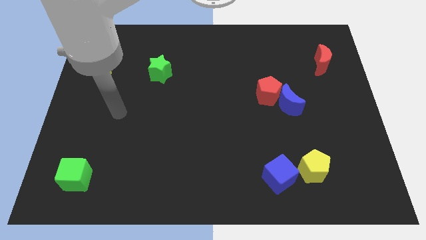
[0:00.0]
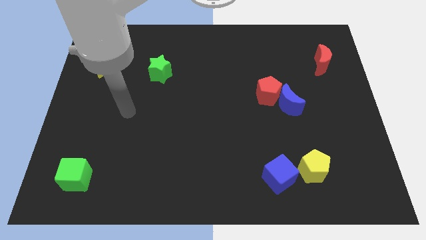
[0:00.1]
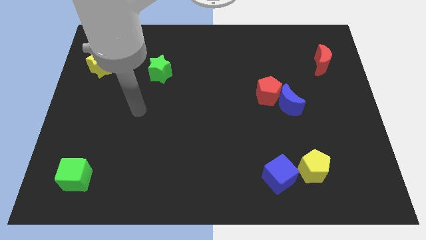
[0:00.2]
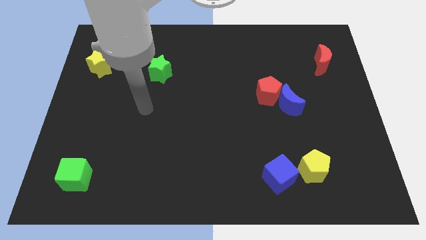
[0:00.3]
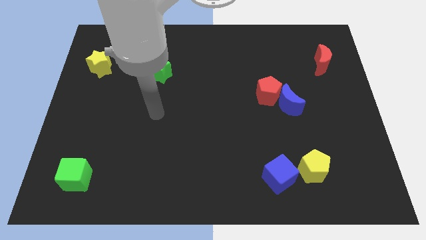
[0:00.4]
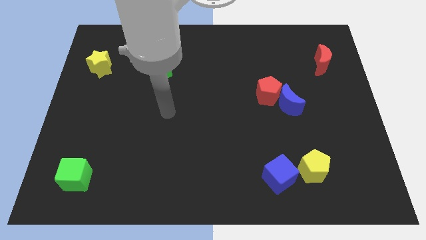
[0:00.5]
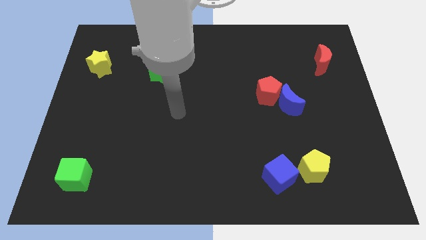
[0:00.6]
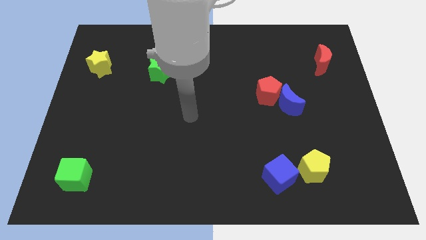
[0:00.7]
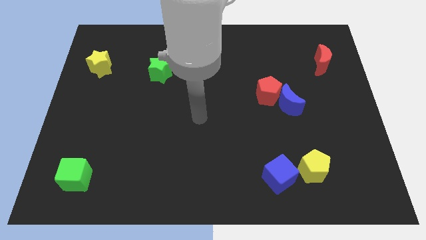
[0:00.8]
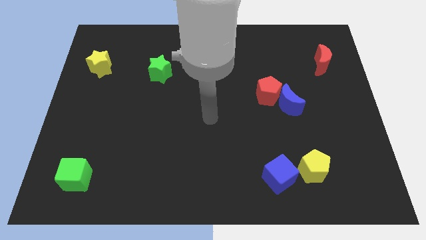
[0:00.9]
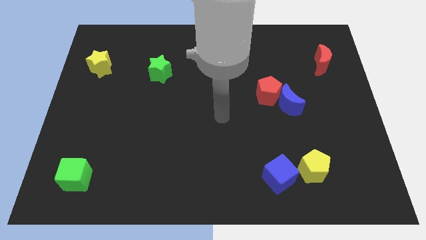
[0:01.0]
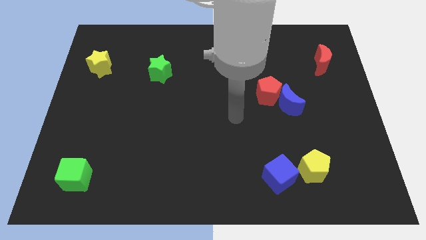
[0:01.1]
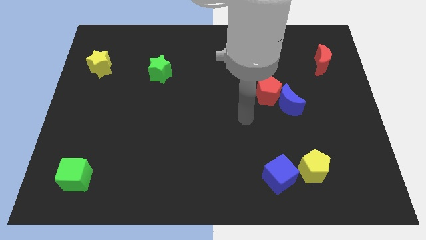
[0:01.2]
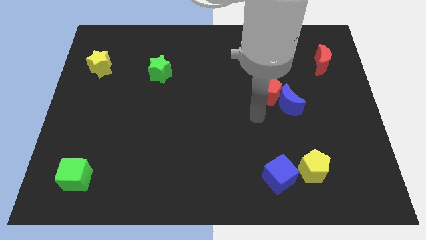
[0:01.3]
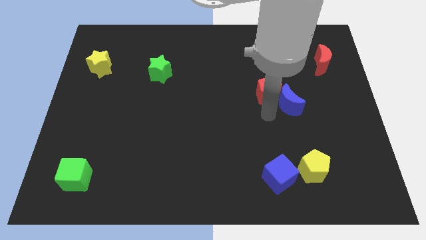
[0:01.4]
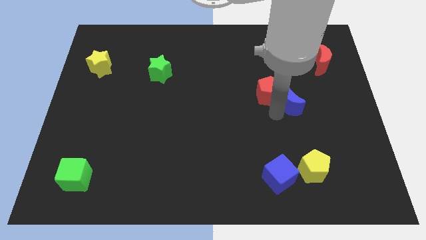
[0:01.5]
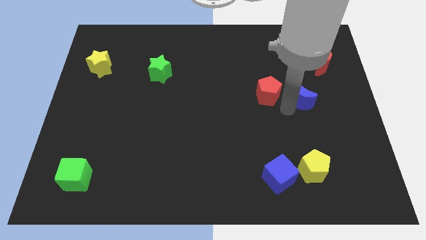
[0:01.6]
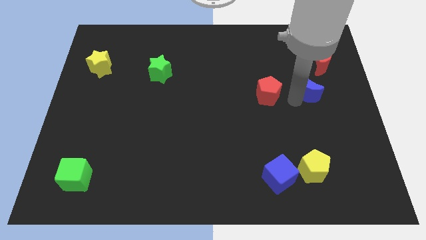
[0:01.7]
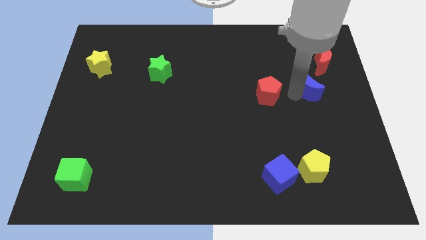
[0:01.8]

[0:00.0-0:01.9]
pull the red pentagon apart from the blue moon

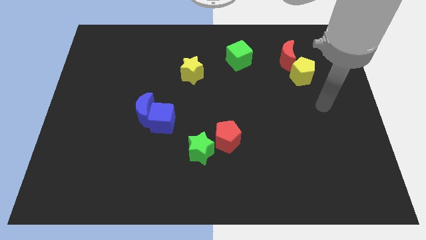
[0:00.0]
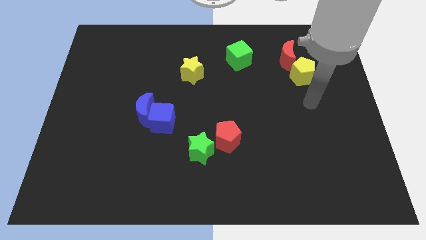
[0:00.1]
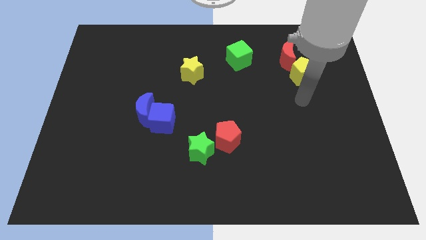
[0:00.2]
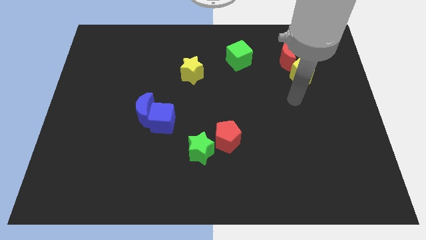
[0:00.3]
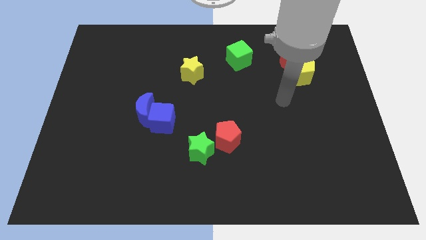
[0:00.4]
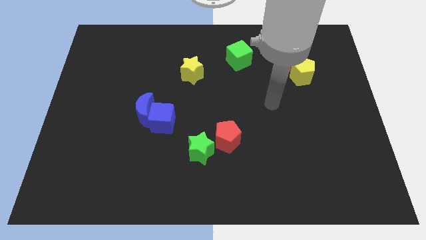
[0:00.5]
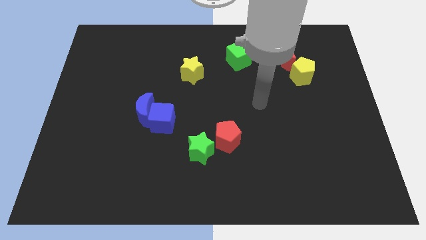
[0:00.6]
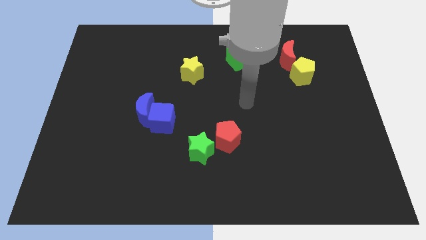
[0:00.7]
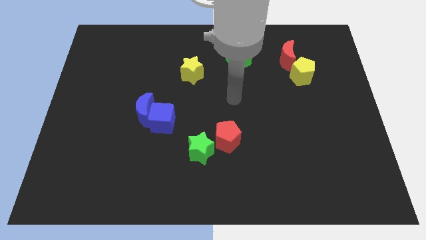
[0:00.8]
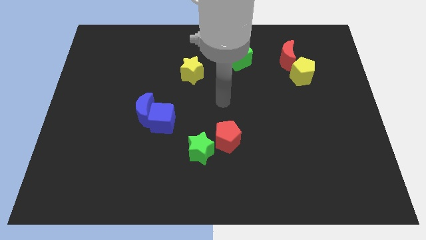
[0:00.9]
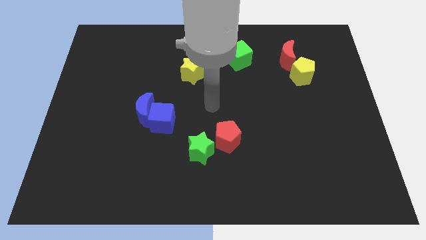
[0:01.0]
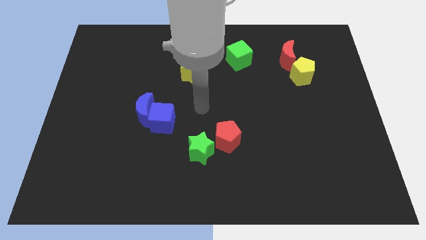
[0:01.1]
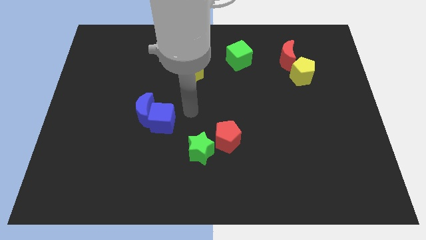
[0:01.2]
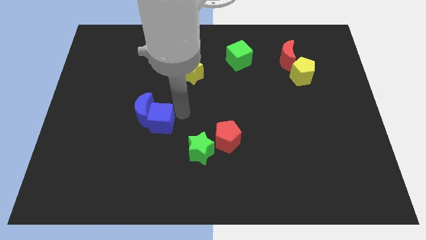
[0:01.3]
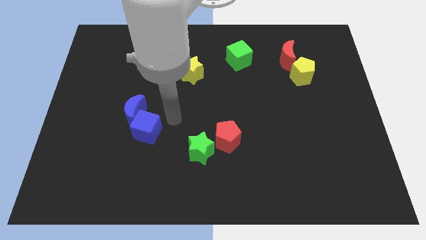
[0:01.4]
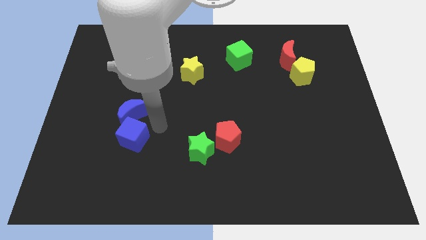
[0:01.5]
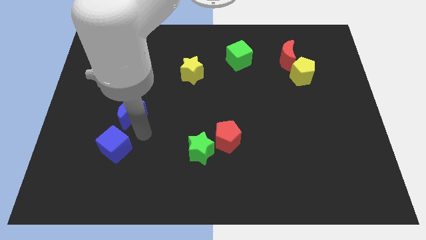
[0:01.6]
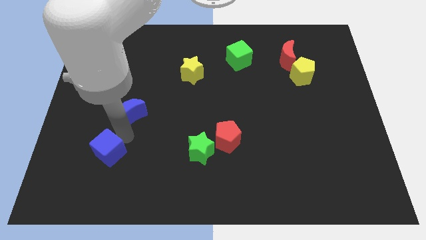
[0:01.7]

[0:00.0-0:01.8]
separate the blue moon from the blue cube

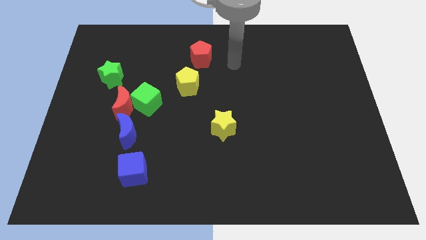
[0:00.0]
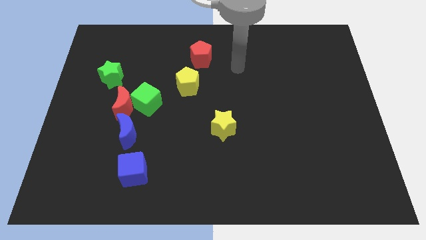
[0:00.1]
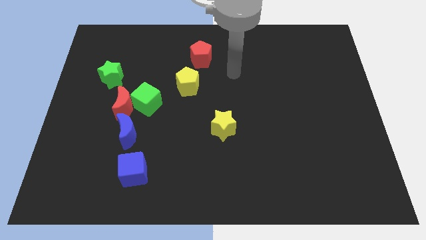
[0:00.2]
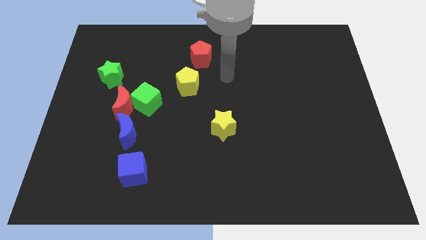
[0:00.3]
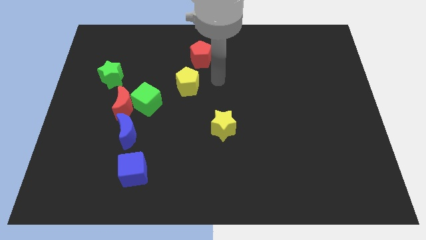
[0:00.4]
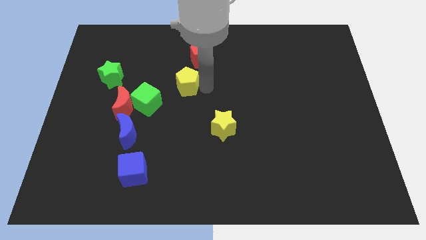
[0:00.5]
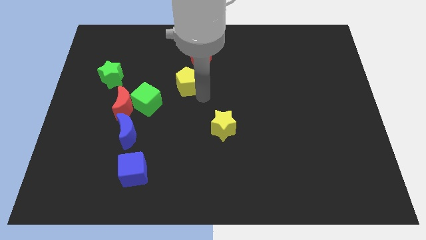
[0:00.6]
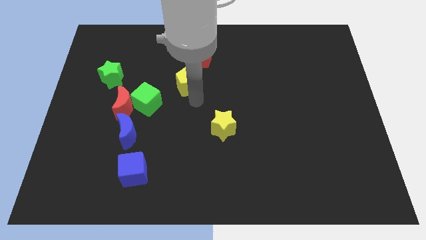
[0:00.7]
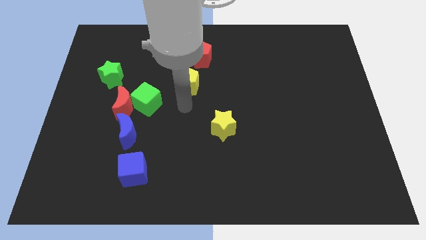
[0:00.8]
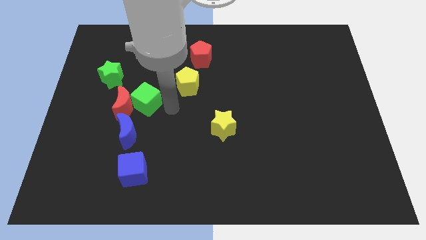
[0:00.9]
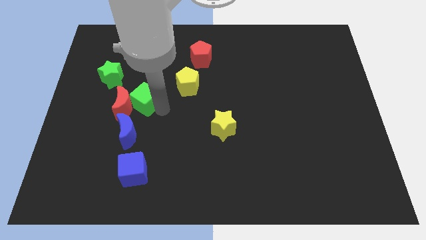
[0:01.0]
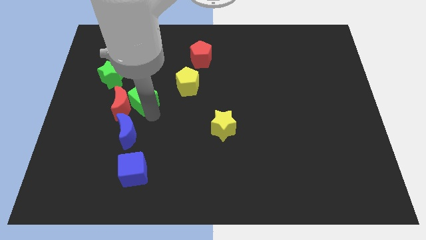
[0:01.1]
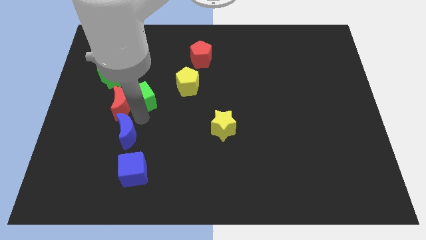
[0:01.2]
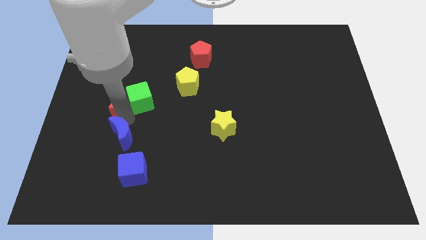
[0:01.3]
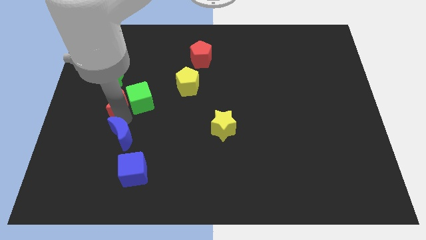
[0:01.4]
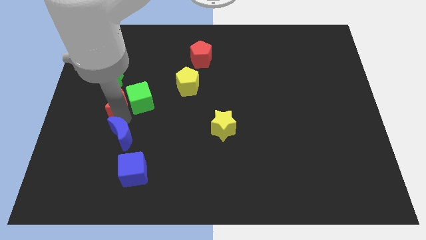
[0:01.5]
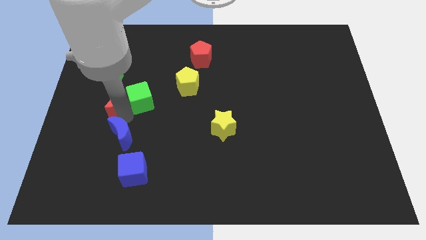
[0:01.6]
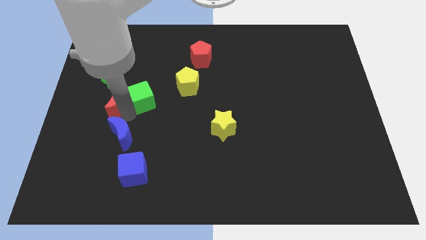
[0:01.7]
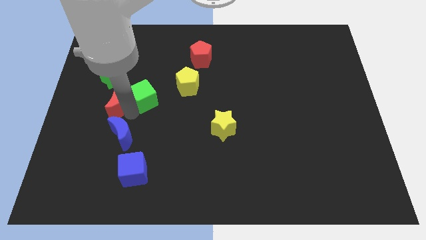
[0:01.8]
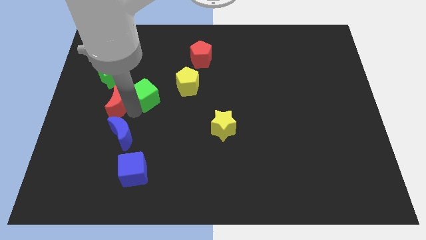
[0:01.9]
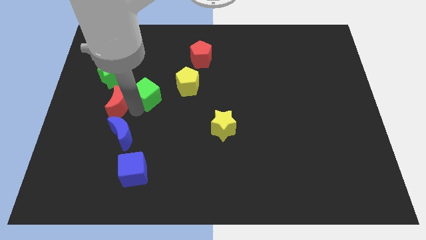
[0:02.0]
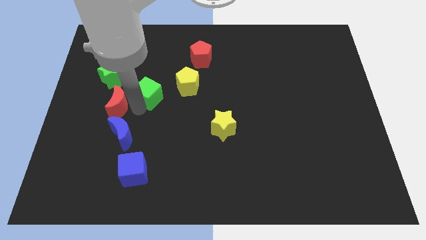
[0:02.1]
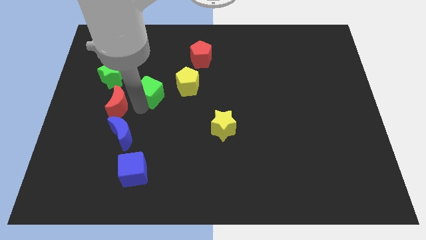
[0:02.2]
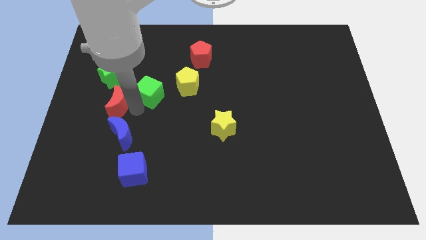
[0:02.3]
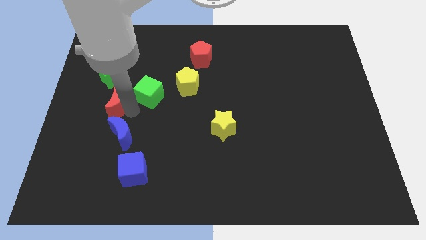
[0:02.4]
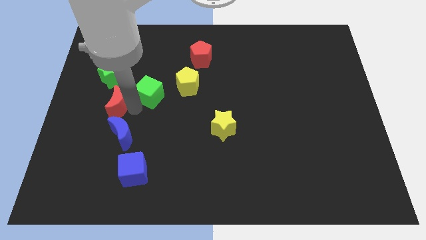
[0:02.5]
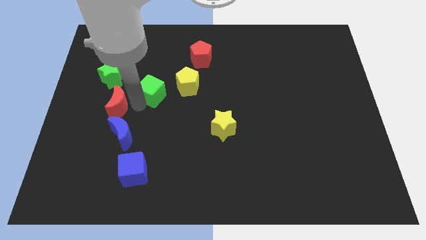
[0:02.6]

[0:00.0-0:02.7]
move the green cube away from the red moon and blue moon

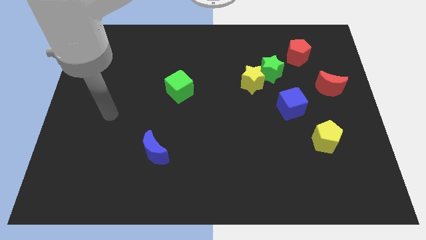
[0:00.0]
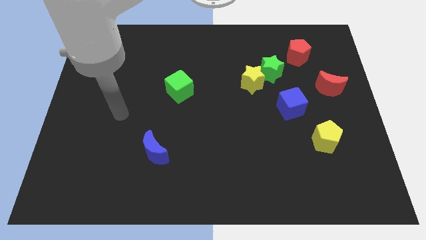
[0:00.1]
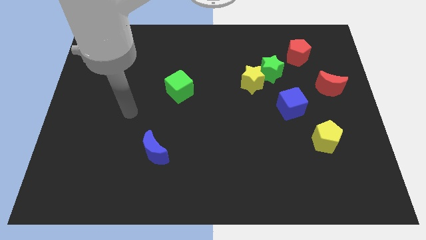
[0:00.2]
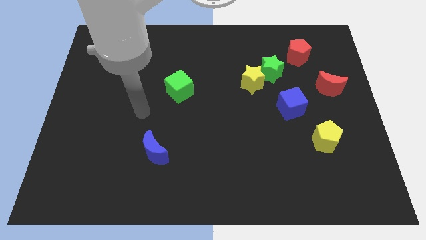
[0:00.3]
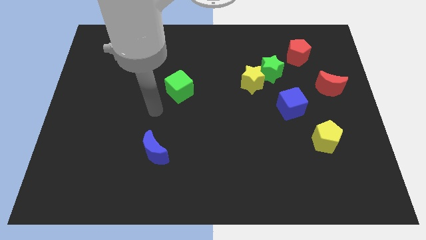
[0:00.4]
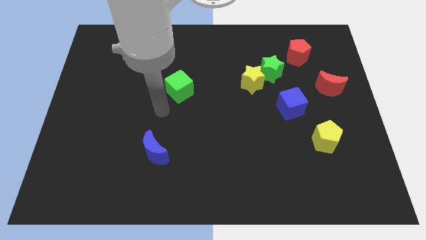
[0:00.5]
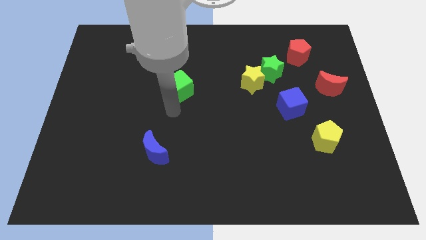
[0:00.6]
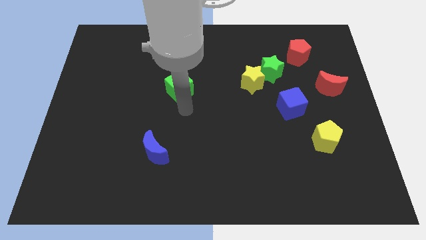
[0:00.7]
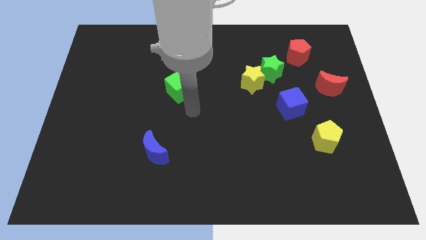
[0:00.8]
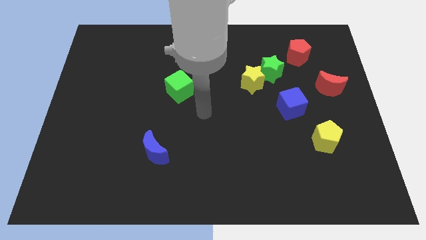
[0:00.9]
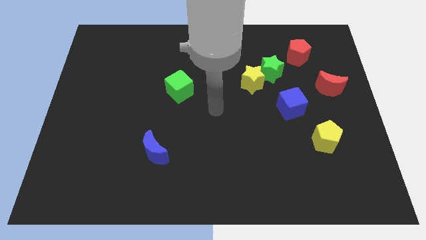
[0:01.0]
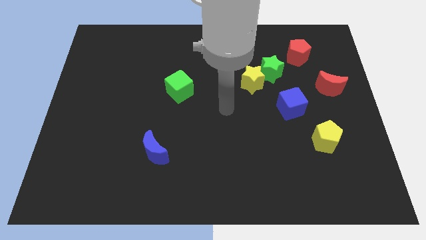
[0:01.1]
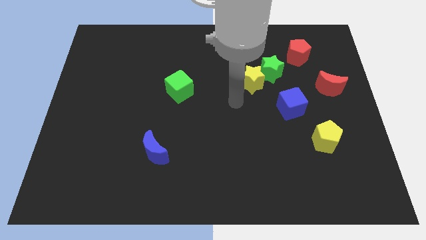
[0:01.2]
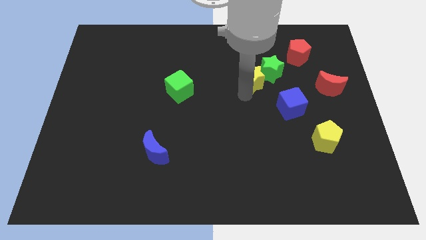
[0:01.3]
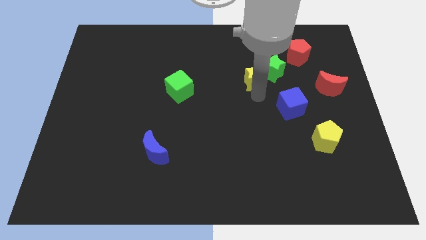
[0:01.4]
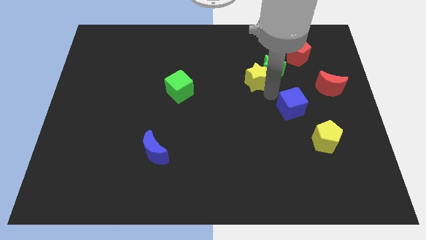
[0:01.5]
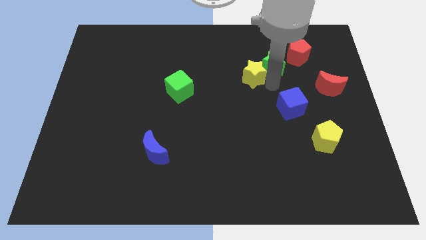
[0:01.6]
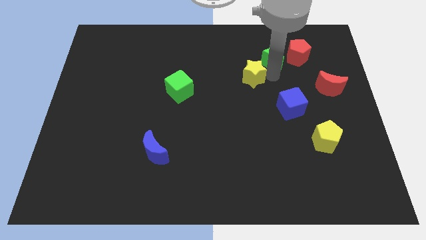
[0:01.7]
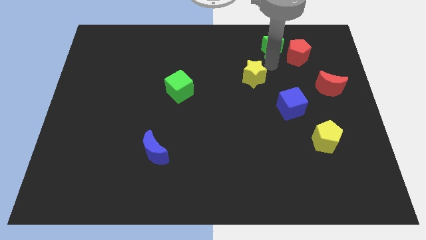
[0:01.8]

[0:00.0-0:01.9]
move the yellow star away from the green star

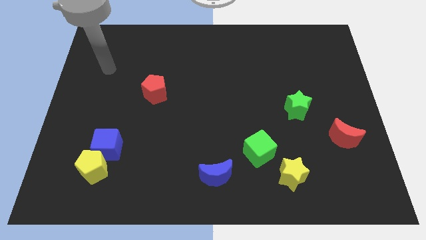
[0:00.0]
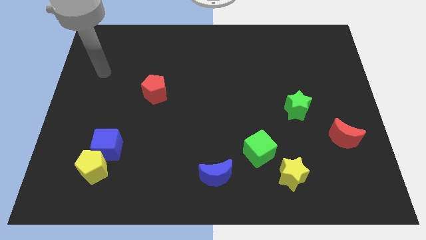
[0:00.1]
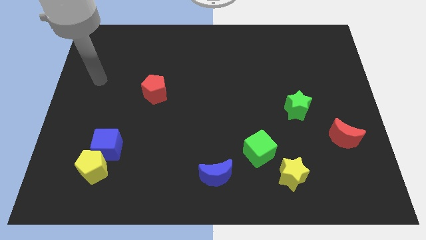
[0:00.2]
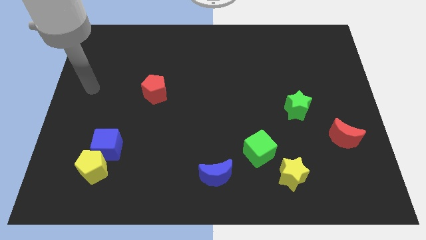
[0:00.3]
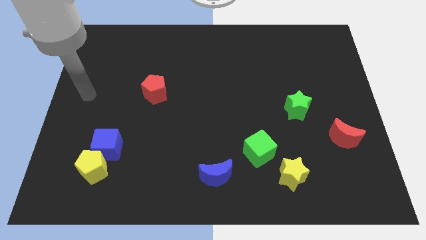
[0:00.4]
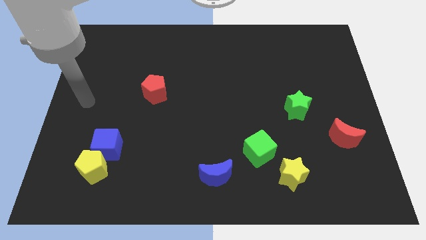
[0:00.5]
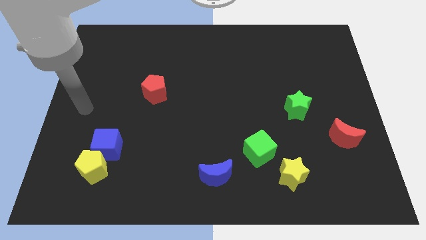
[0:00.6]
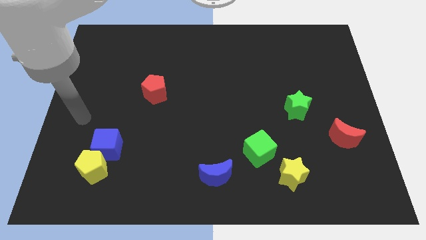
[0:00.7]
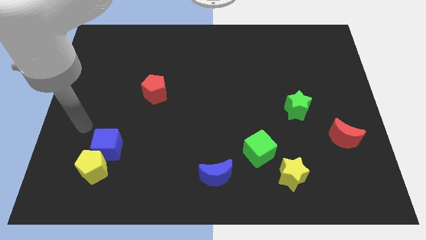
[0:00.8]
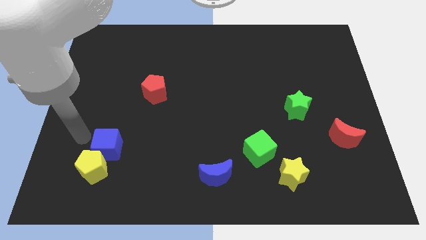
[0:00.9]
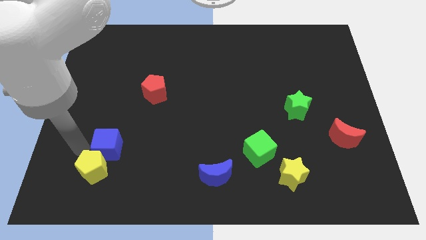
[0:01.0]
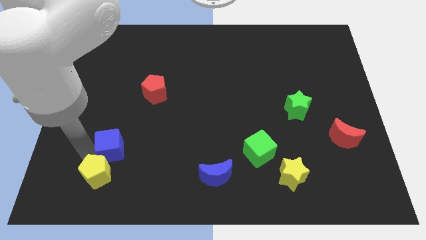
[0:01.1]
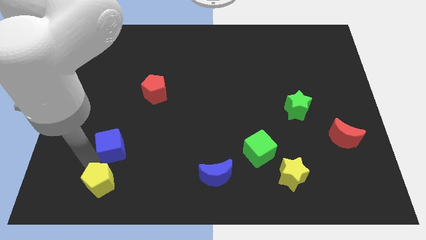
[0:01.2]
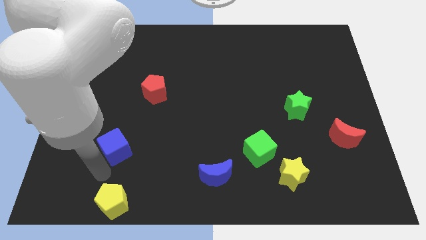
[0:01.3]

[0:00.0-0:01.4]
move the blue cube away from the yellow pentagon
